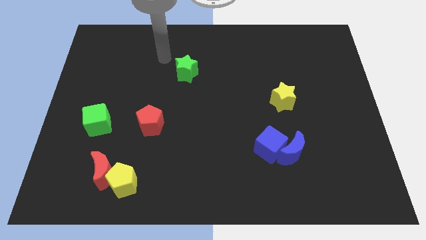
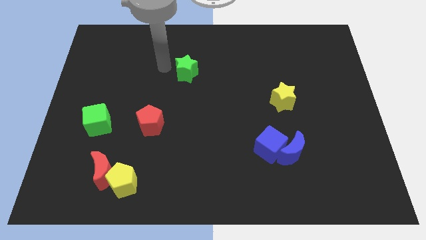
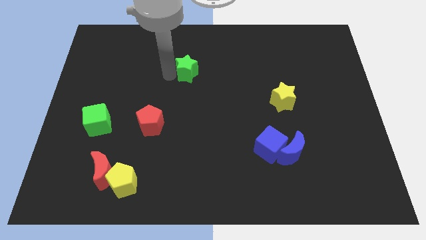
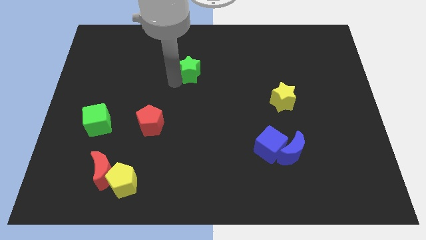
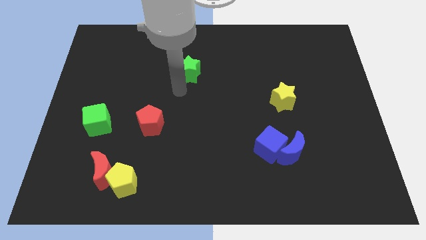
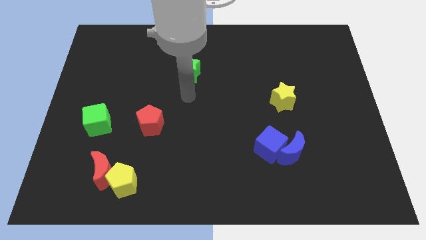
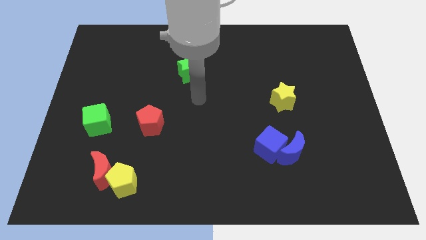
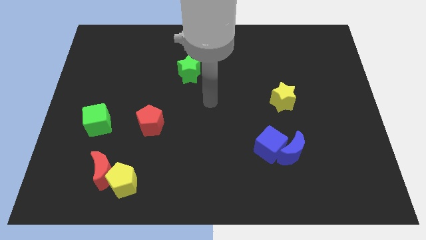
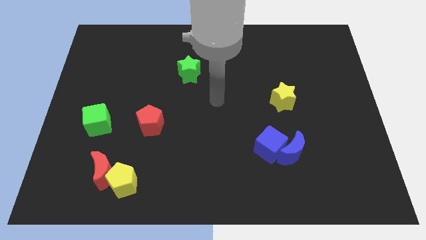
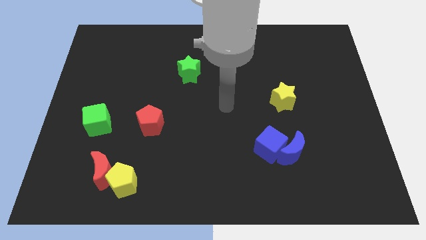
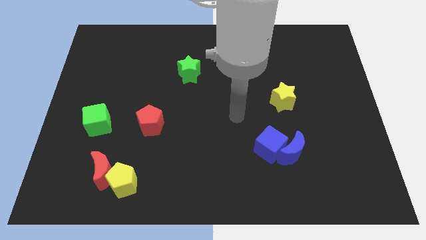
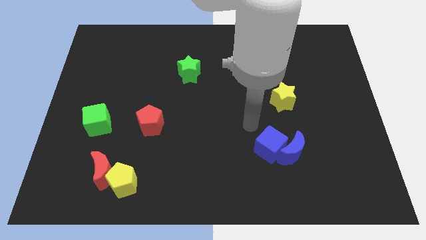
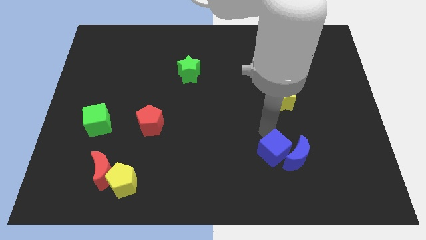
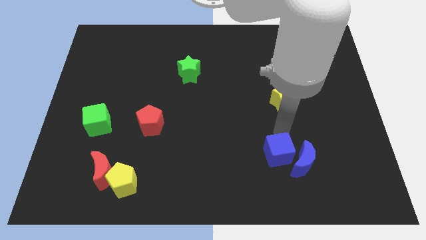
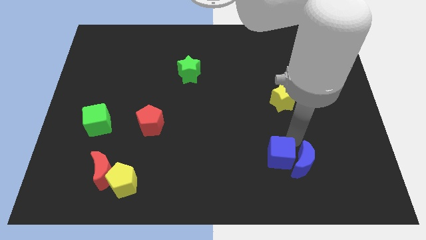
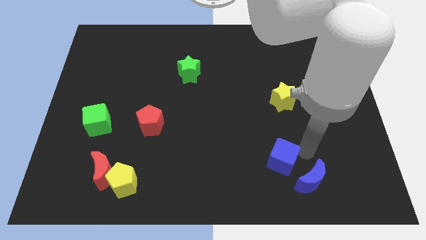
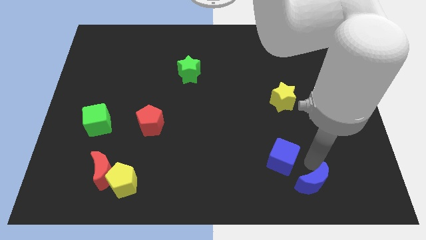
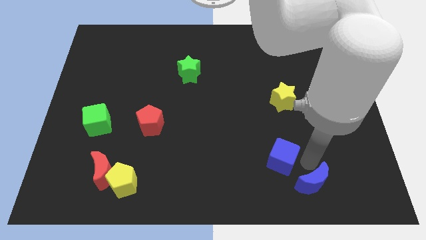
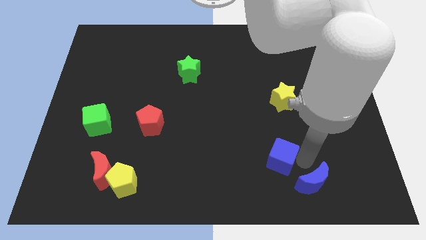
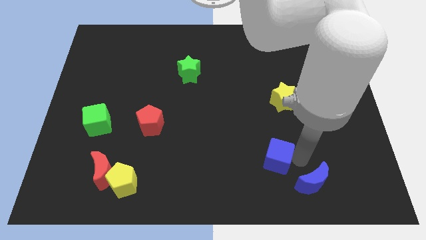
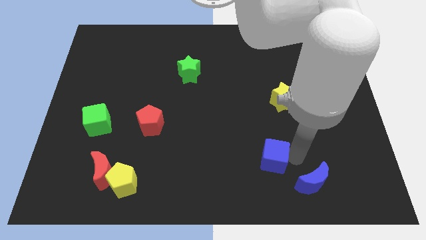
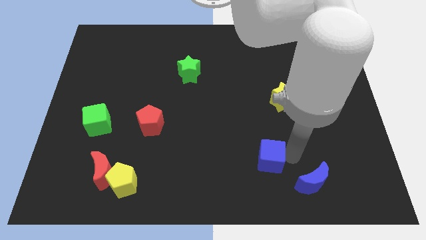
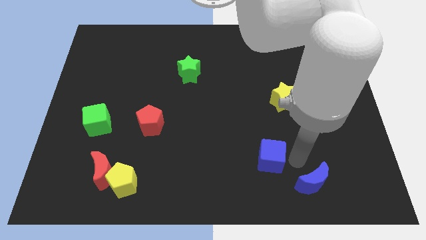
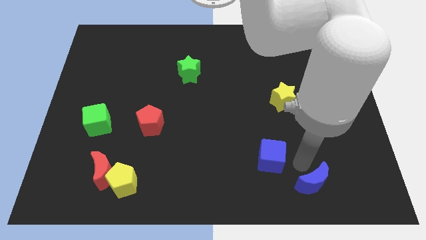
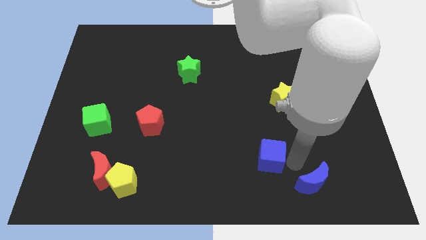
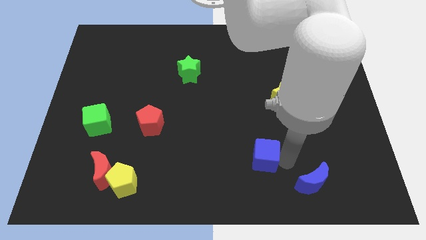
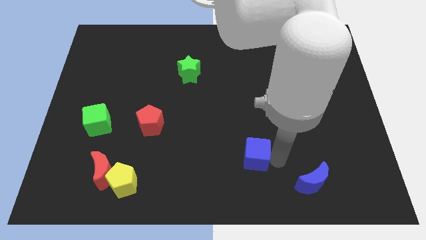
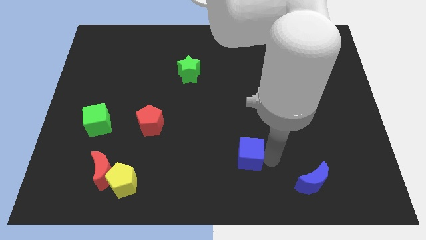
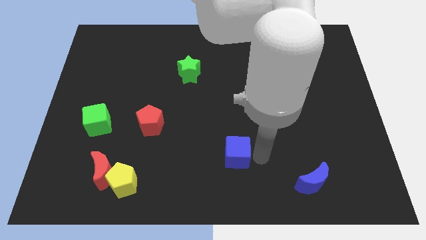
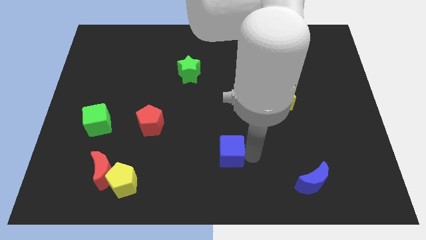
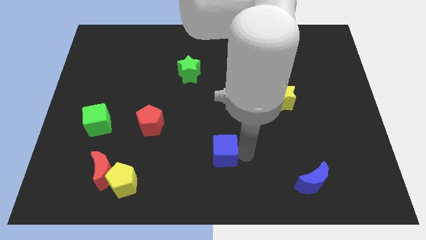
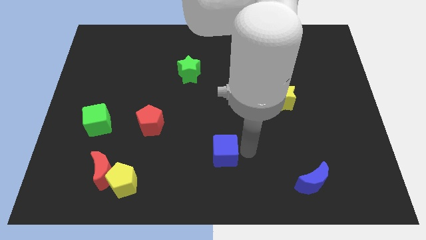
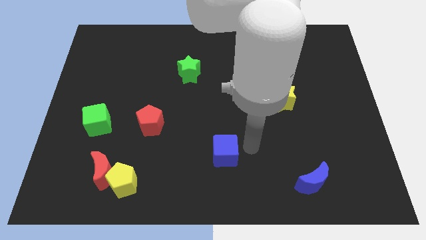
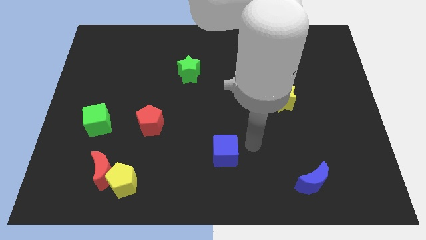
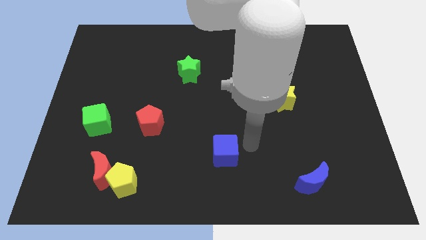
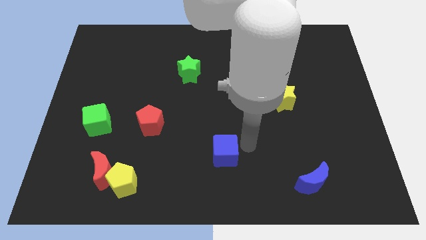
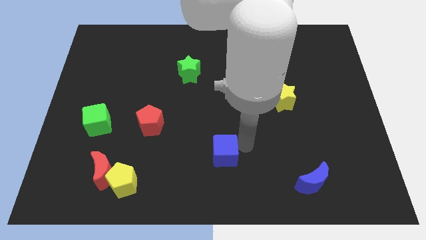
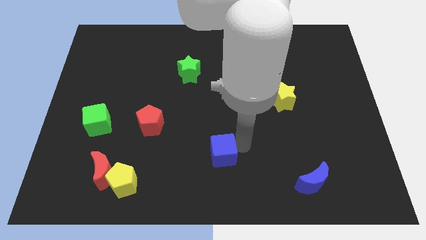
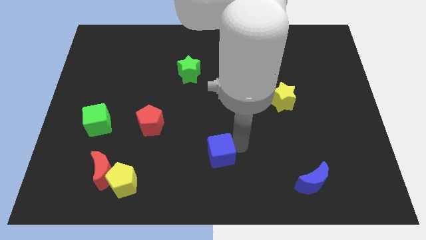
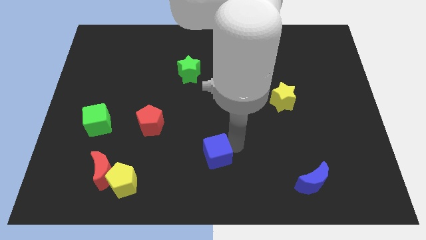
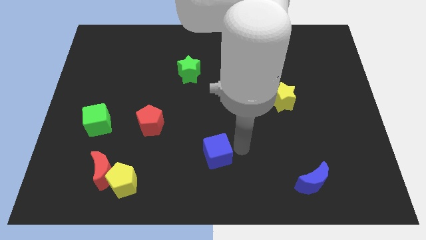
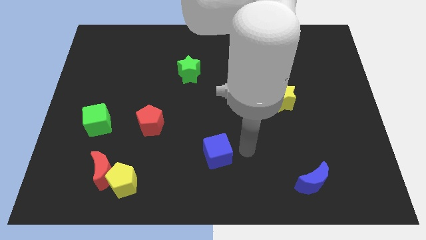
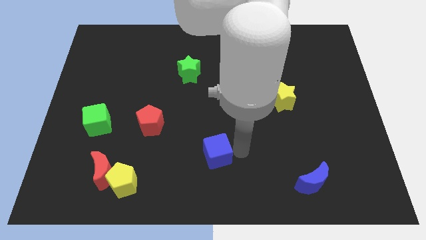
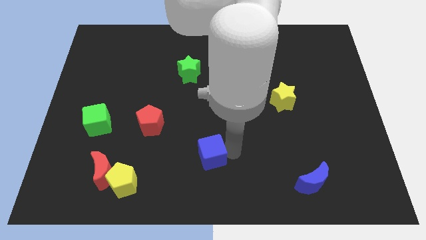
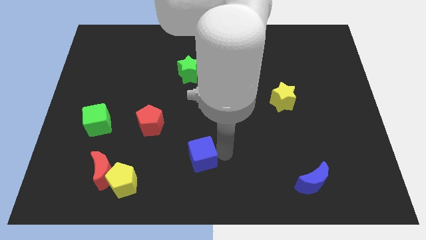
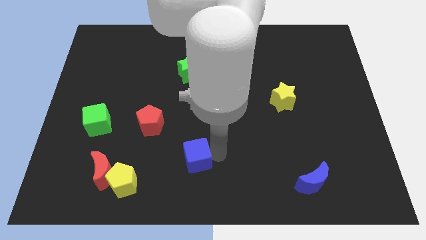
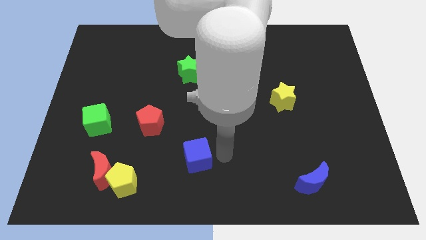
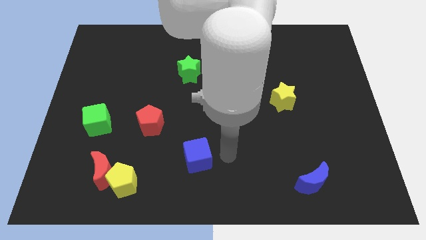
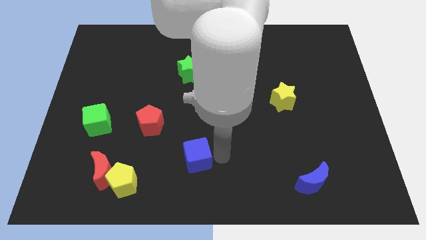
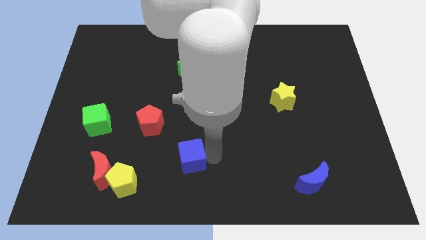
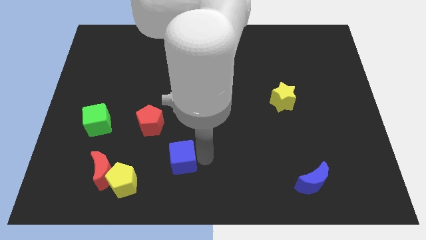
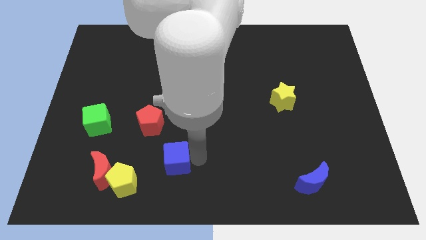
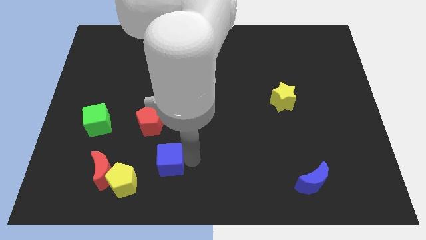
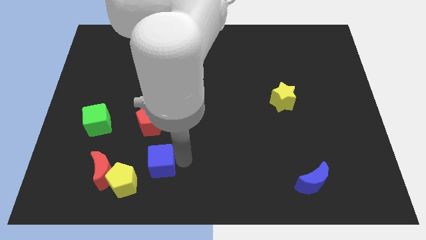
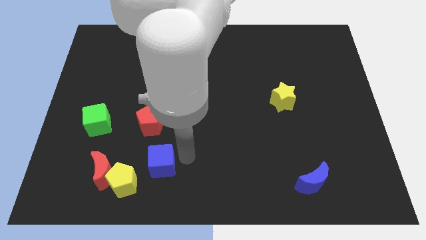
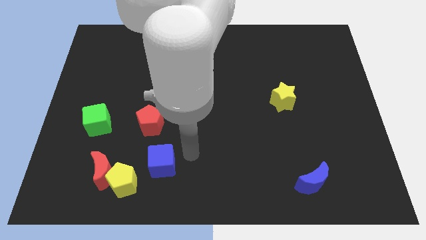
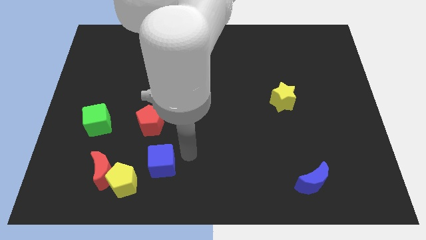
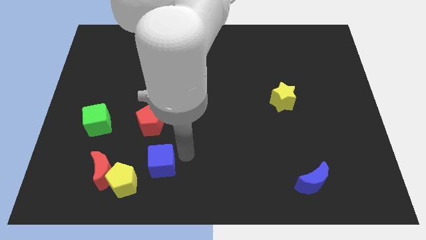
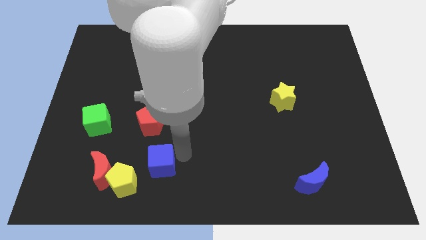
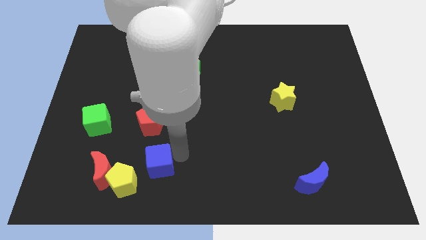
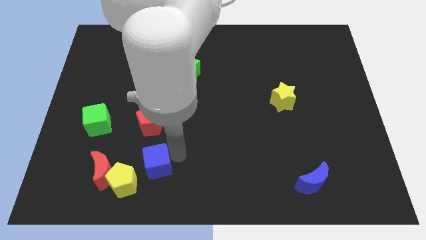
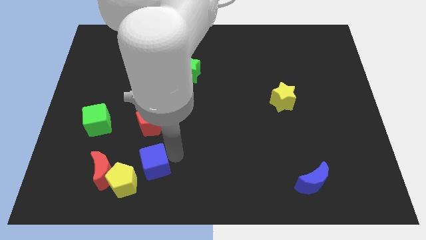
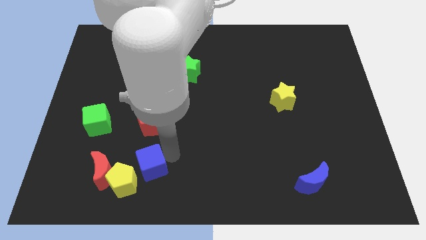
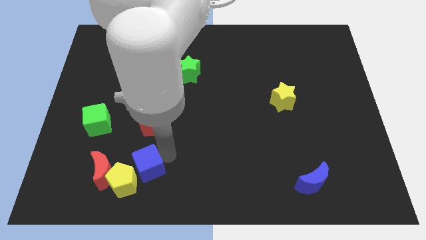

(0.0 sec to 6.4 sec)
slide the blue cube towards the yellow pentagon
